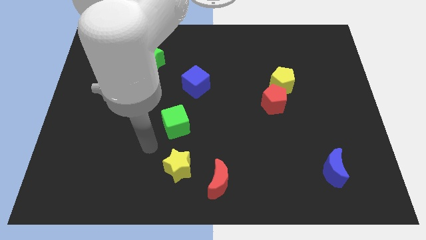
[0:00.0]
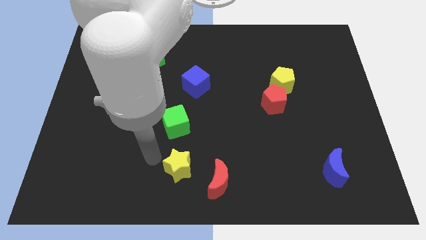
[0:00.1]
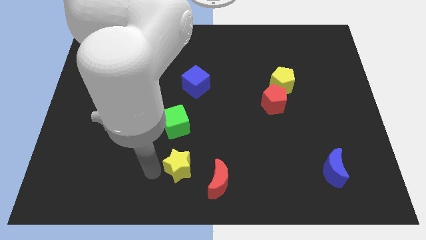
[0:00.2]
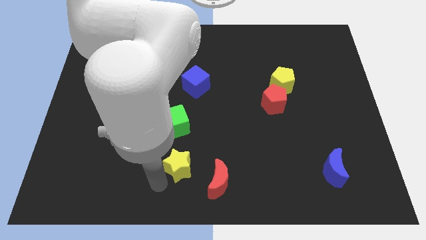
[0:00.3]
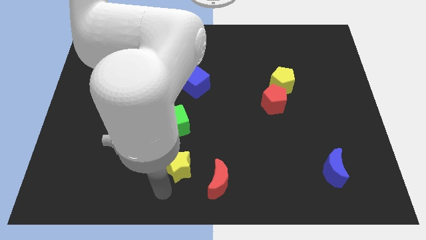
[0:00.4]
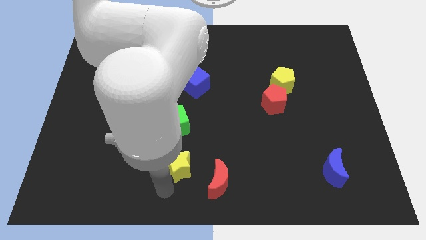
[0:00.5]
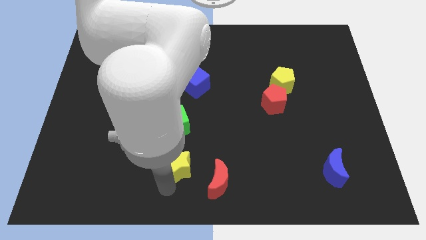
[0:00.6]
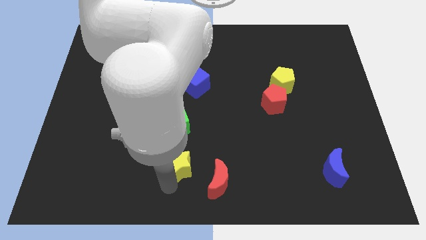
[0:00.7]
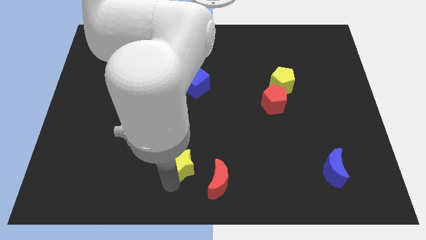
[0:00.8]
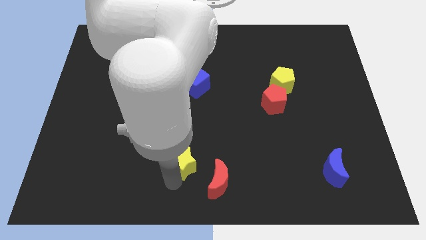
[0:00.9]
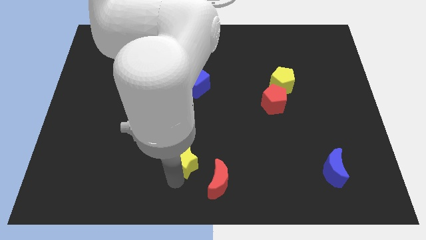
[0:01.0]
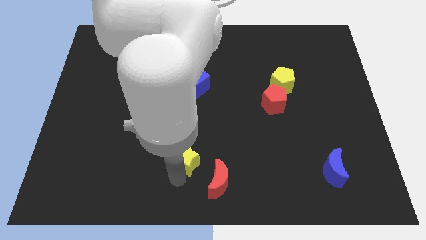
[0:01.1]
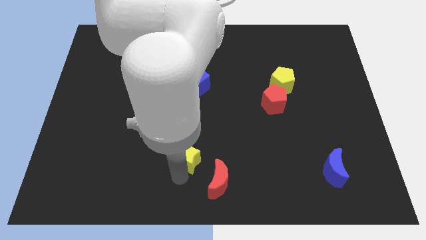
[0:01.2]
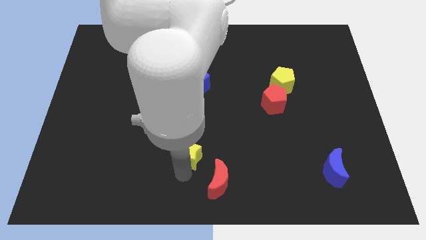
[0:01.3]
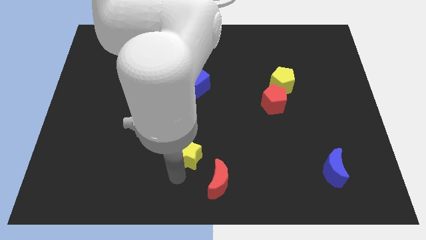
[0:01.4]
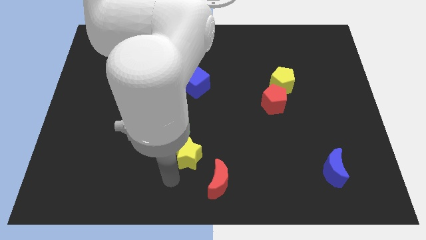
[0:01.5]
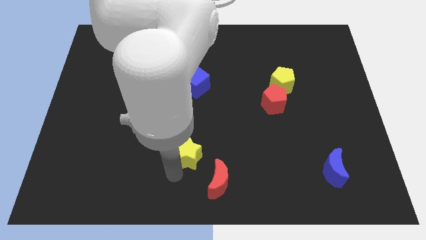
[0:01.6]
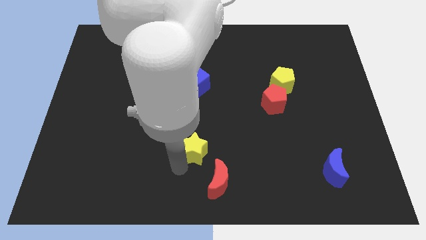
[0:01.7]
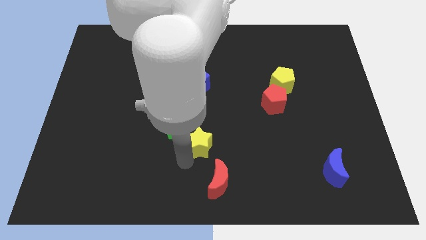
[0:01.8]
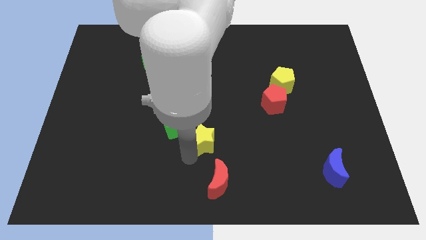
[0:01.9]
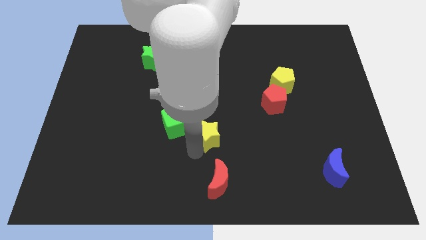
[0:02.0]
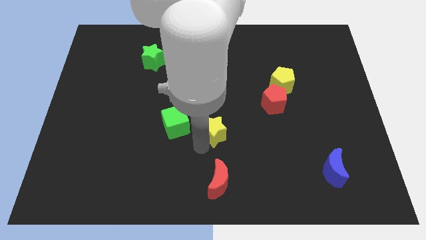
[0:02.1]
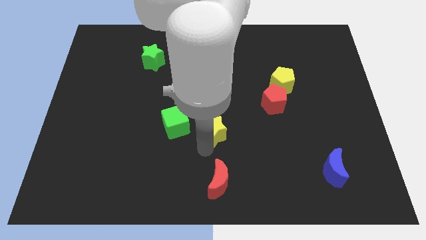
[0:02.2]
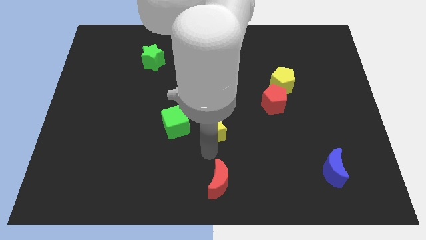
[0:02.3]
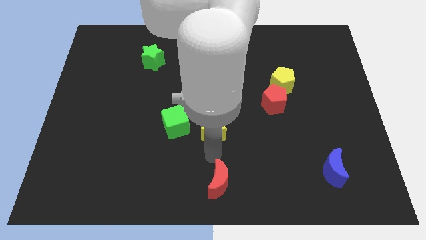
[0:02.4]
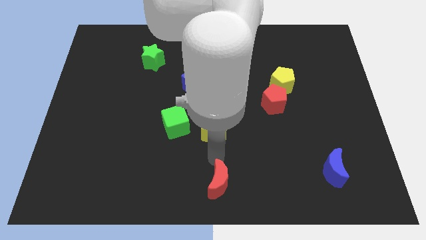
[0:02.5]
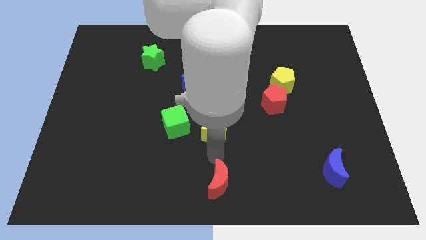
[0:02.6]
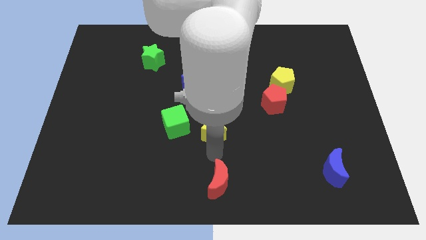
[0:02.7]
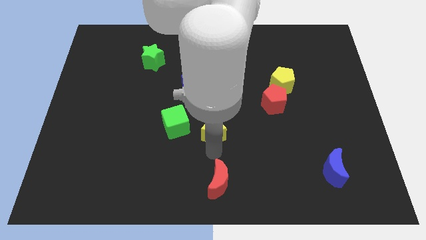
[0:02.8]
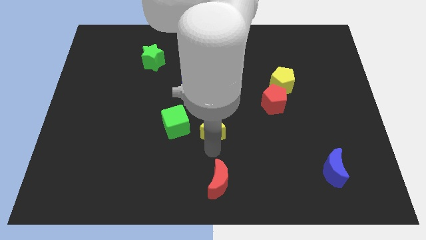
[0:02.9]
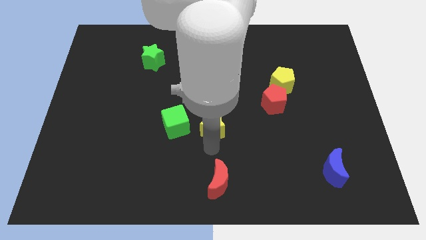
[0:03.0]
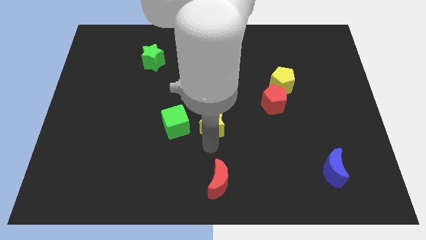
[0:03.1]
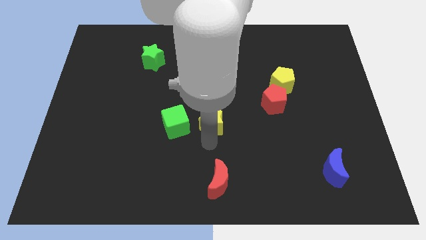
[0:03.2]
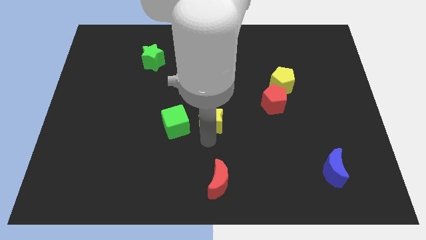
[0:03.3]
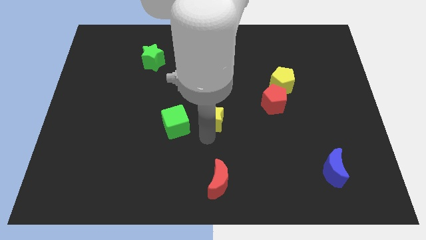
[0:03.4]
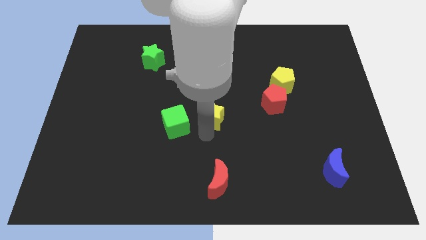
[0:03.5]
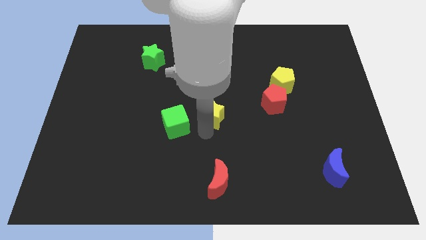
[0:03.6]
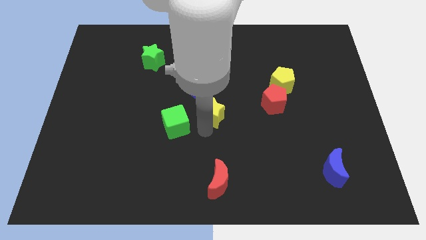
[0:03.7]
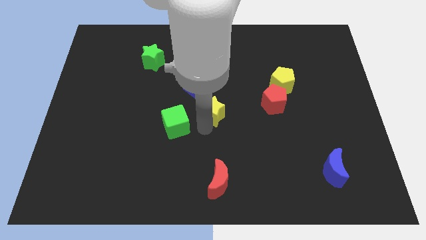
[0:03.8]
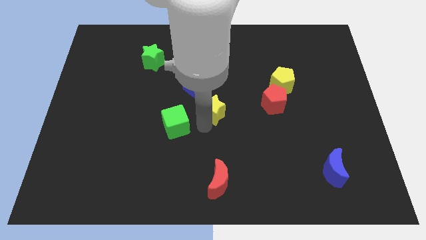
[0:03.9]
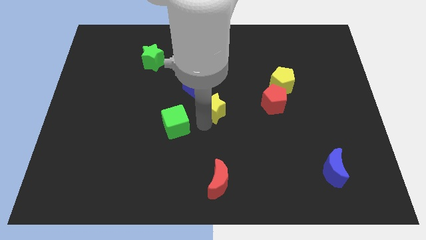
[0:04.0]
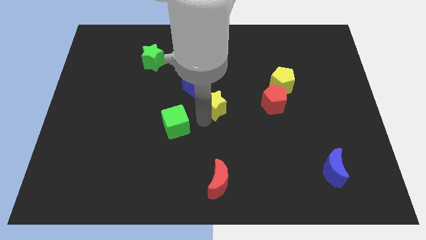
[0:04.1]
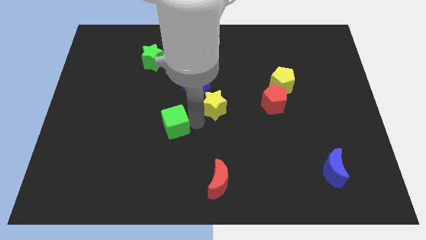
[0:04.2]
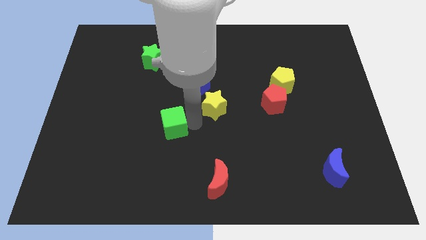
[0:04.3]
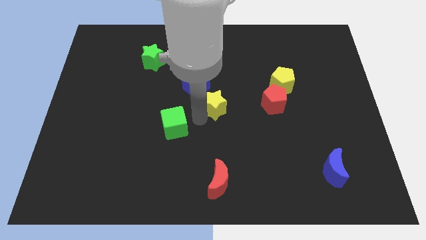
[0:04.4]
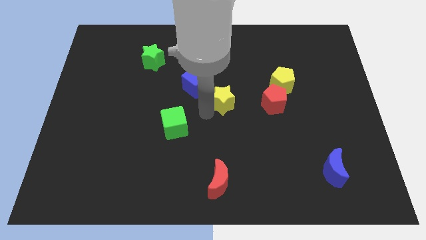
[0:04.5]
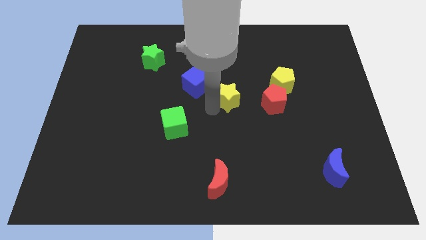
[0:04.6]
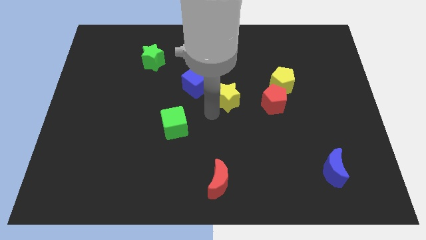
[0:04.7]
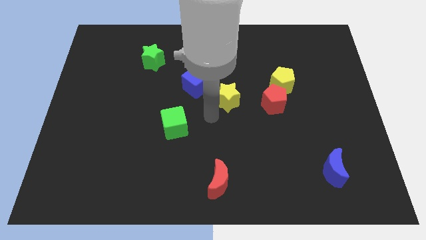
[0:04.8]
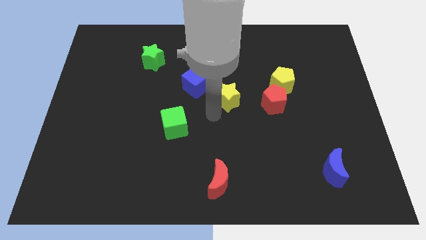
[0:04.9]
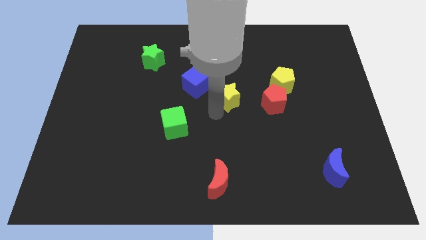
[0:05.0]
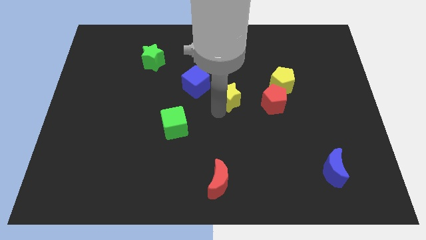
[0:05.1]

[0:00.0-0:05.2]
move the yellow star to the left of the yellow pentagon

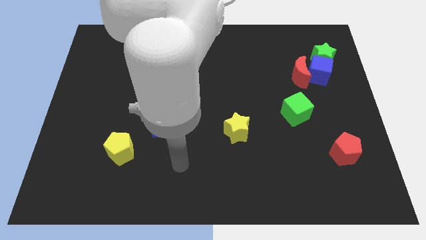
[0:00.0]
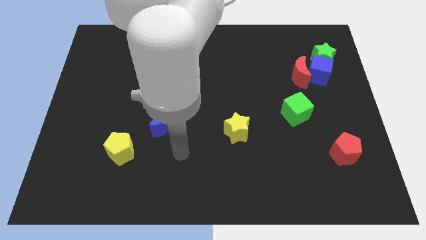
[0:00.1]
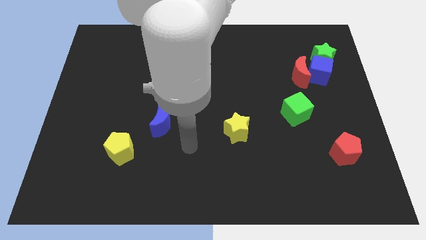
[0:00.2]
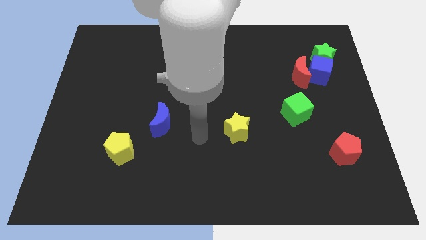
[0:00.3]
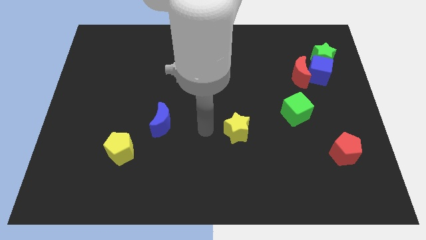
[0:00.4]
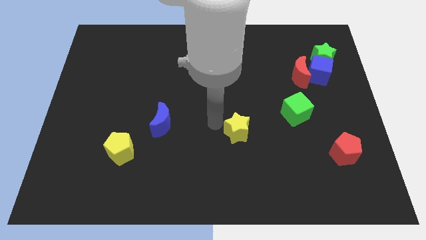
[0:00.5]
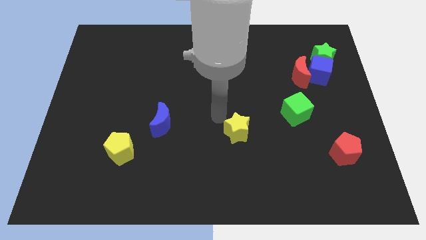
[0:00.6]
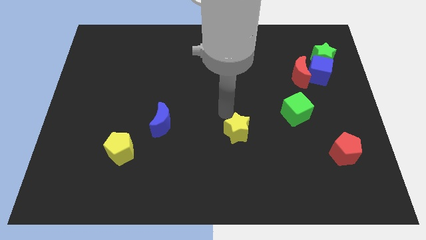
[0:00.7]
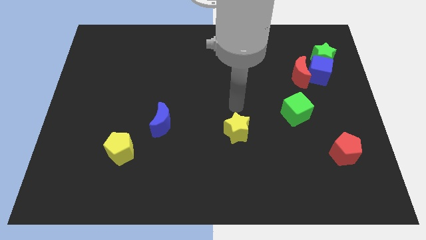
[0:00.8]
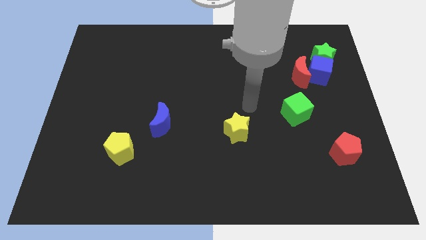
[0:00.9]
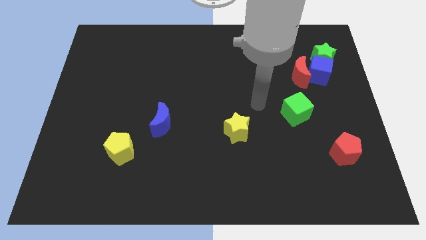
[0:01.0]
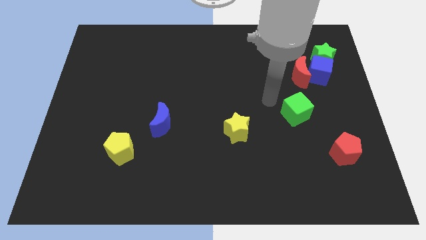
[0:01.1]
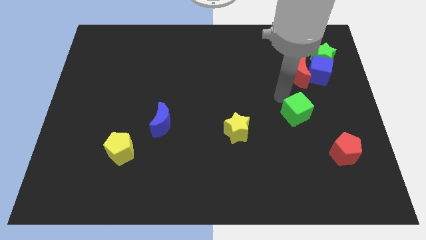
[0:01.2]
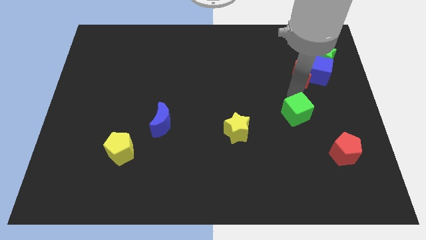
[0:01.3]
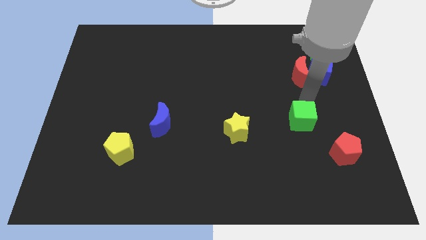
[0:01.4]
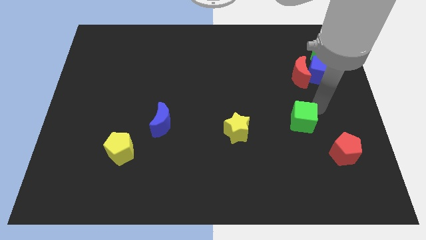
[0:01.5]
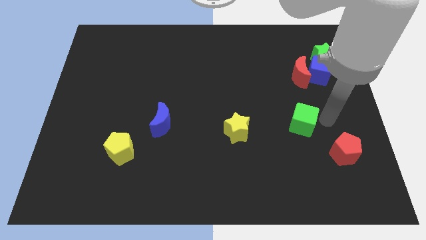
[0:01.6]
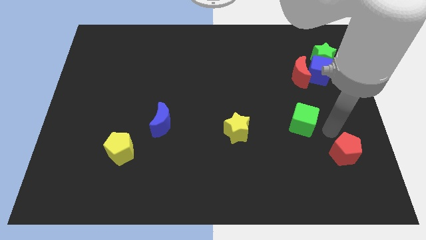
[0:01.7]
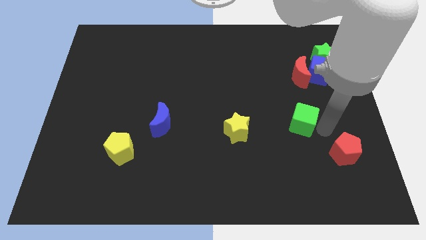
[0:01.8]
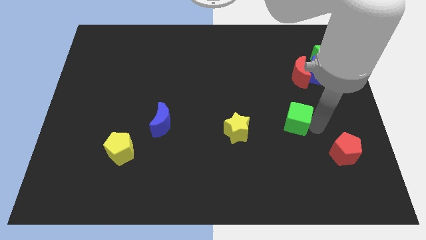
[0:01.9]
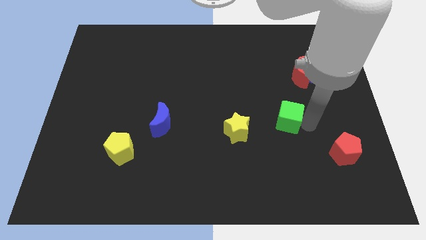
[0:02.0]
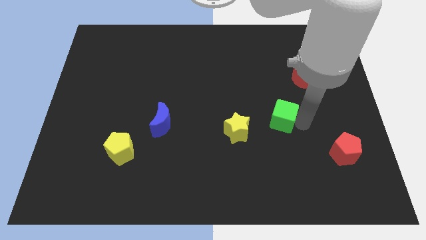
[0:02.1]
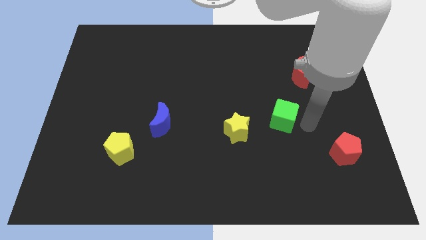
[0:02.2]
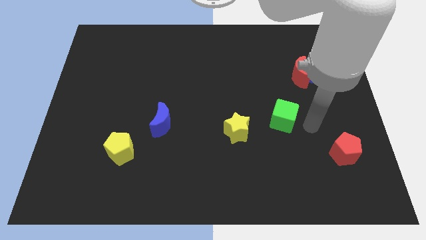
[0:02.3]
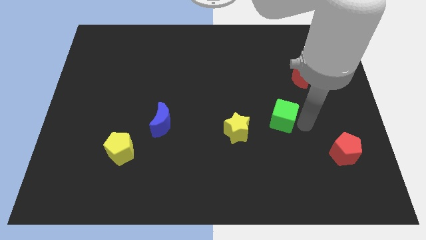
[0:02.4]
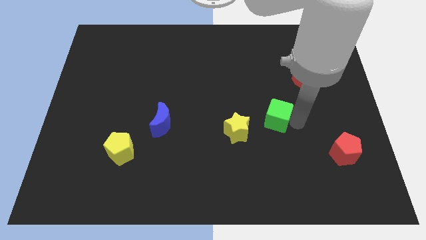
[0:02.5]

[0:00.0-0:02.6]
move the green cube diagonally up and to the right of the yellow star
